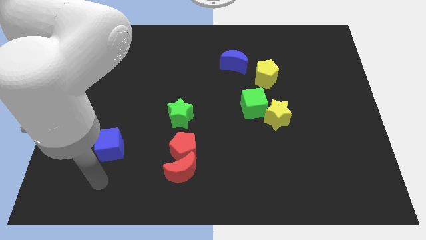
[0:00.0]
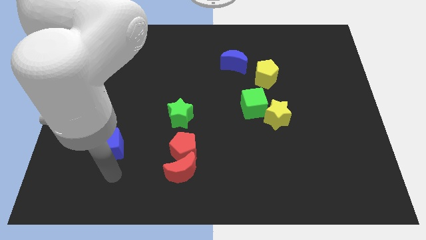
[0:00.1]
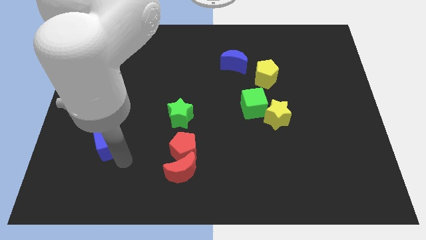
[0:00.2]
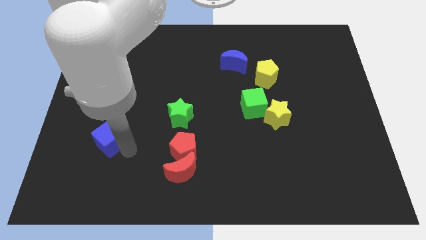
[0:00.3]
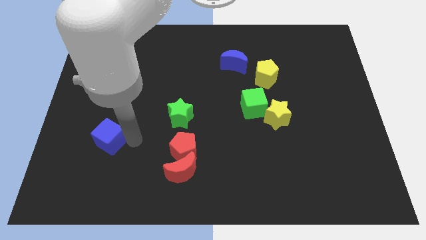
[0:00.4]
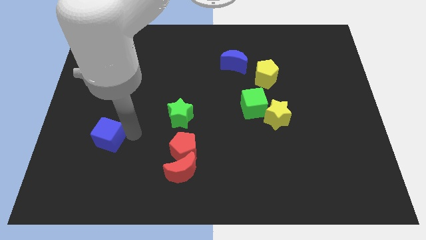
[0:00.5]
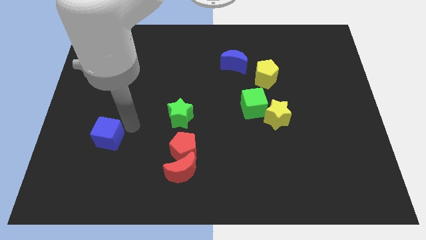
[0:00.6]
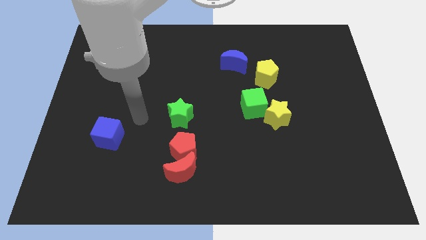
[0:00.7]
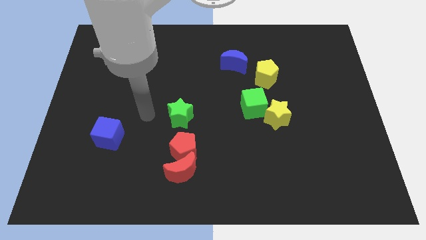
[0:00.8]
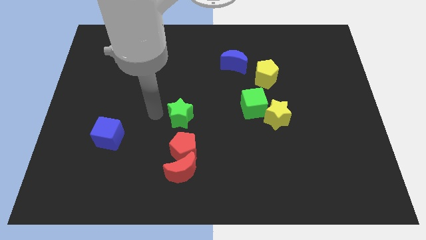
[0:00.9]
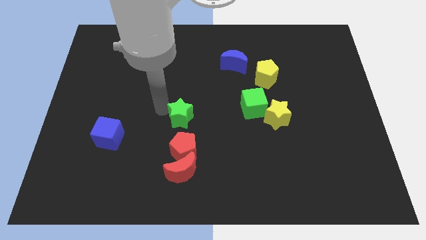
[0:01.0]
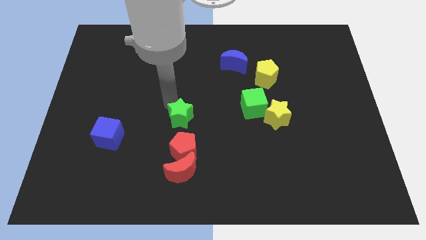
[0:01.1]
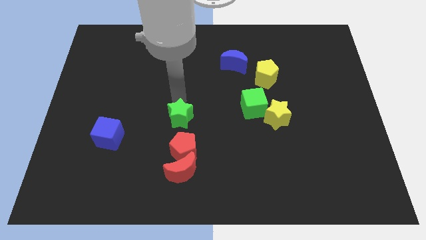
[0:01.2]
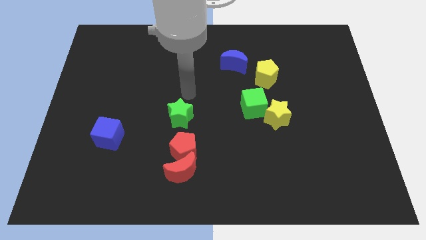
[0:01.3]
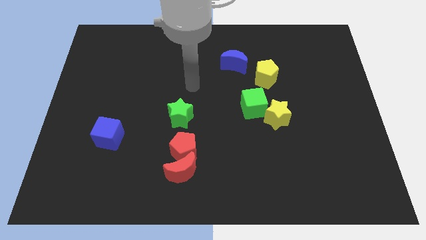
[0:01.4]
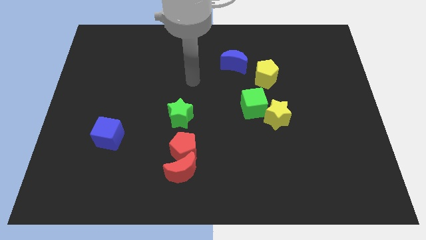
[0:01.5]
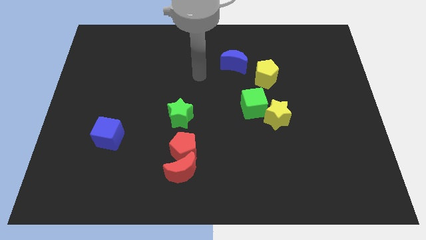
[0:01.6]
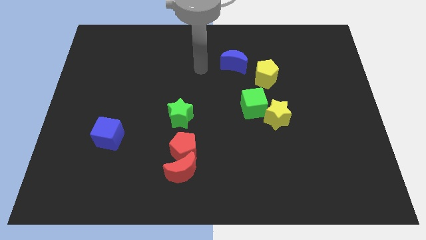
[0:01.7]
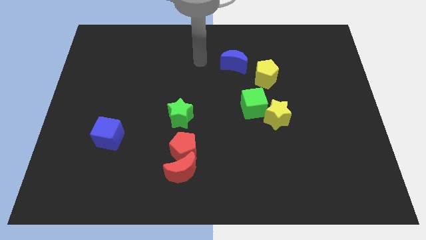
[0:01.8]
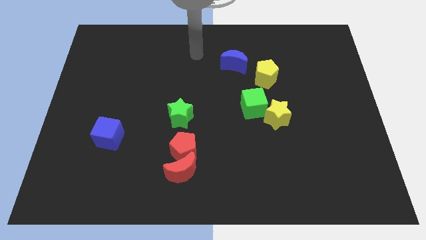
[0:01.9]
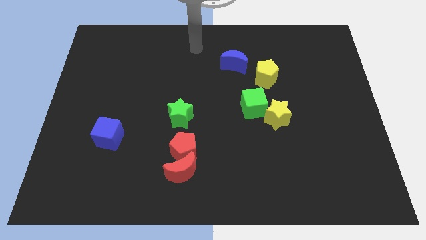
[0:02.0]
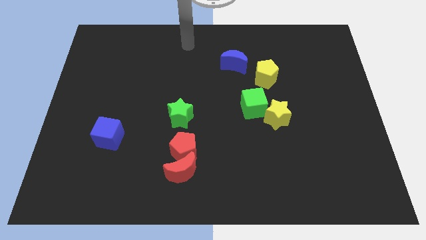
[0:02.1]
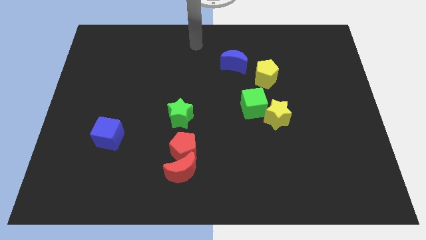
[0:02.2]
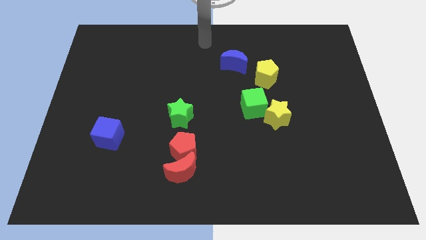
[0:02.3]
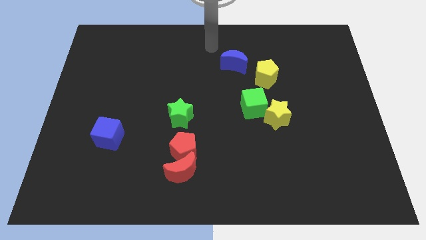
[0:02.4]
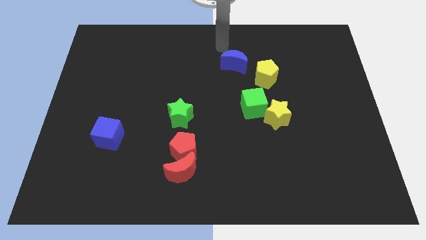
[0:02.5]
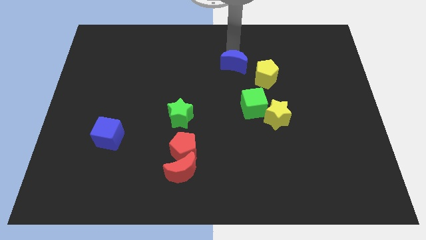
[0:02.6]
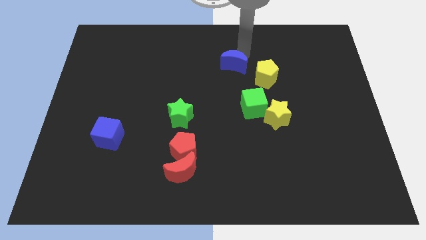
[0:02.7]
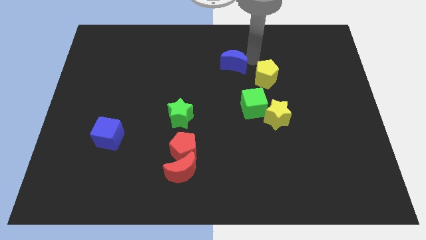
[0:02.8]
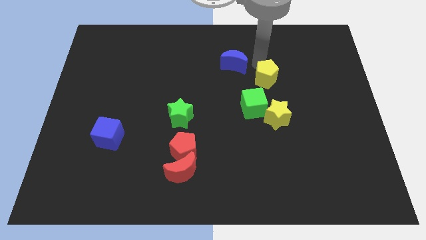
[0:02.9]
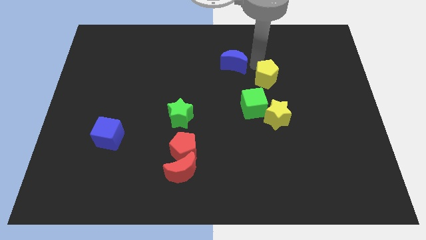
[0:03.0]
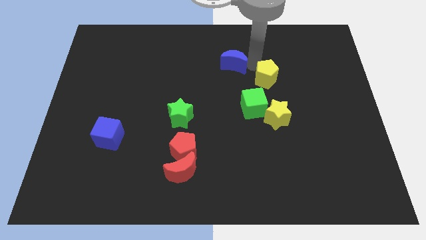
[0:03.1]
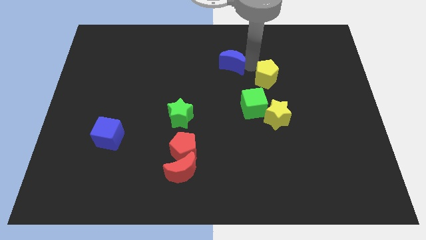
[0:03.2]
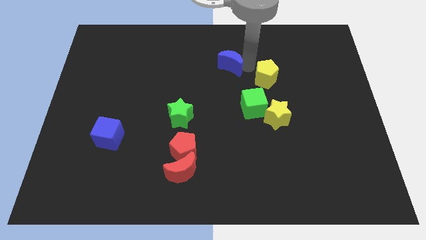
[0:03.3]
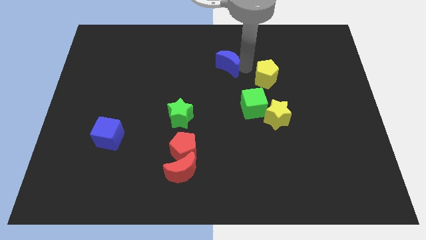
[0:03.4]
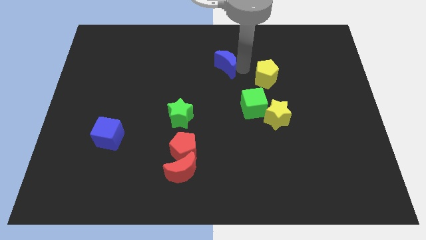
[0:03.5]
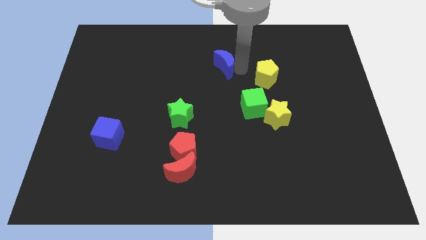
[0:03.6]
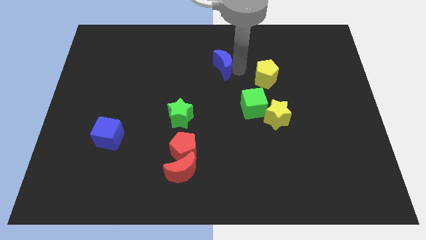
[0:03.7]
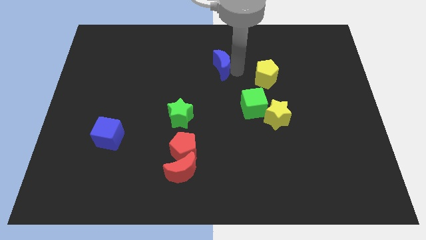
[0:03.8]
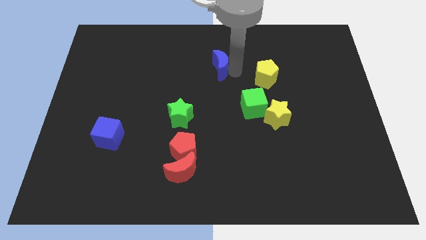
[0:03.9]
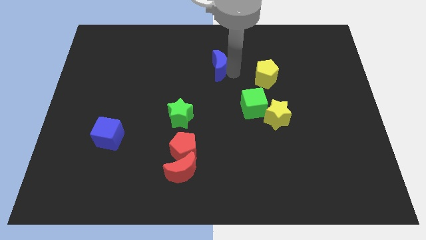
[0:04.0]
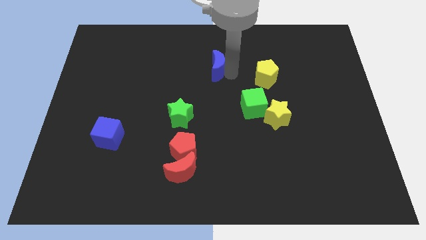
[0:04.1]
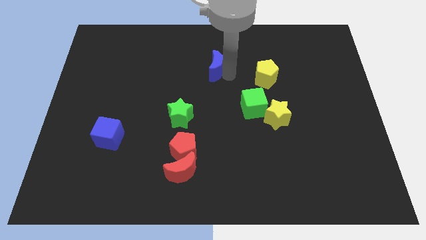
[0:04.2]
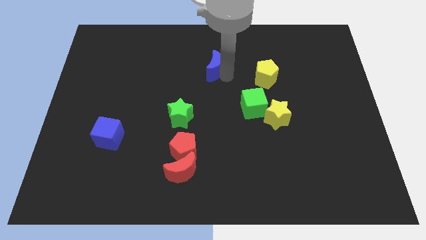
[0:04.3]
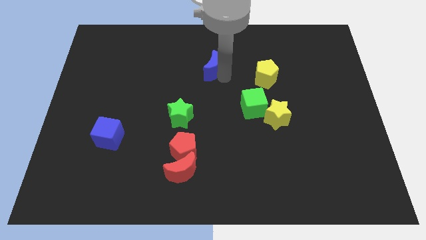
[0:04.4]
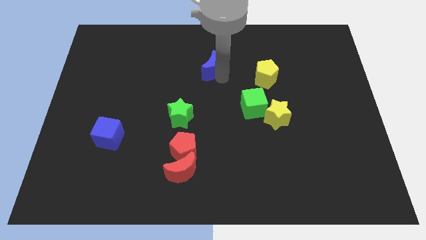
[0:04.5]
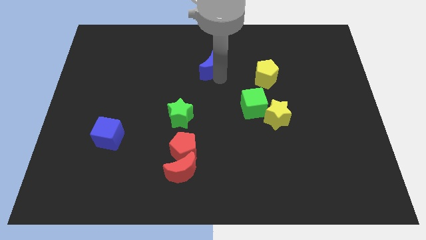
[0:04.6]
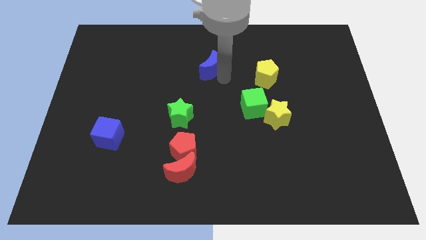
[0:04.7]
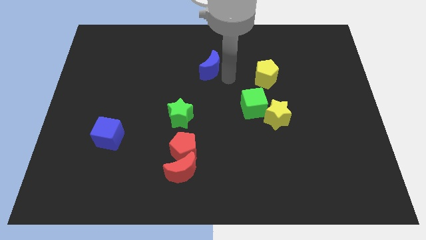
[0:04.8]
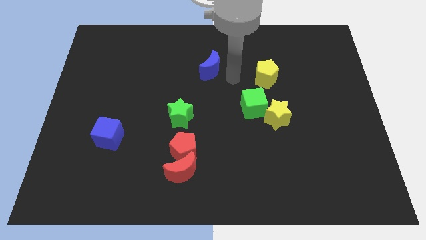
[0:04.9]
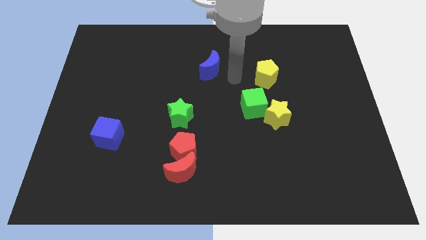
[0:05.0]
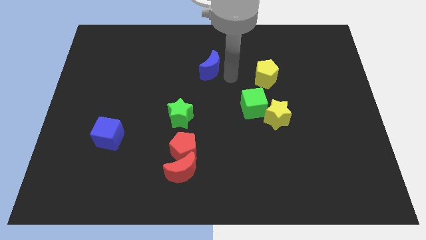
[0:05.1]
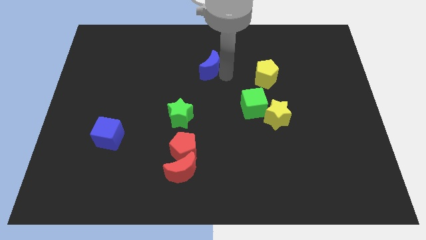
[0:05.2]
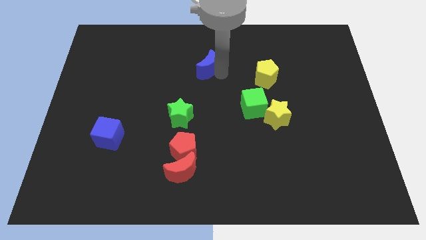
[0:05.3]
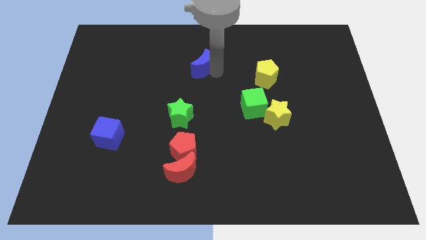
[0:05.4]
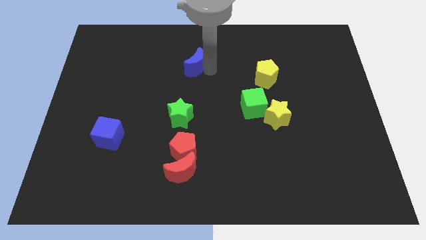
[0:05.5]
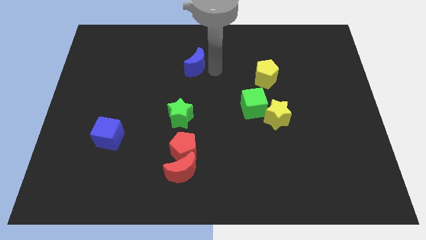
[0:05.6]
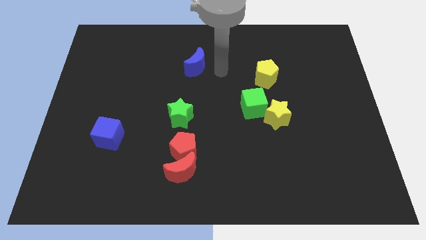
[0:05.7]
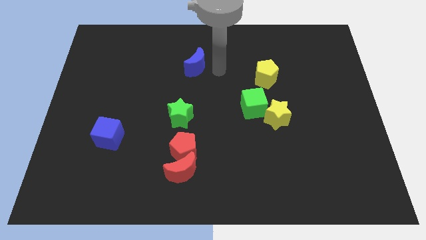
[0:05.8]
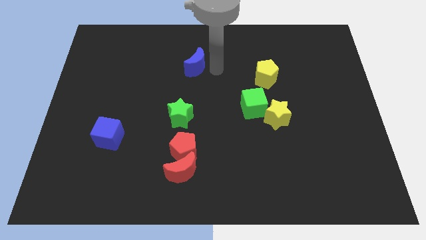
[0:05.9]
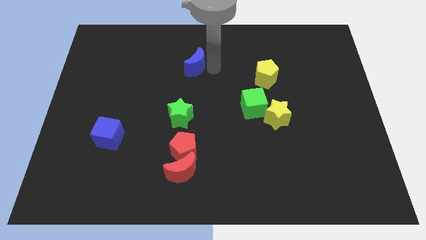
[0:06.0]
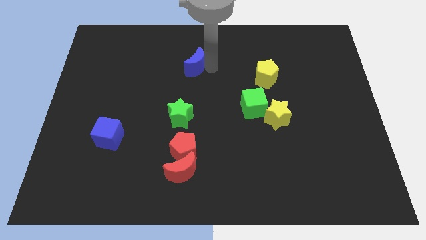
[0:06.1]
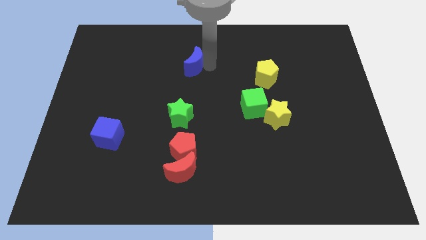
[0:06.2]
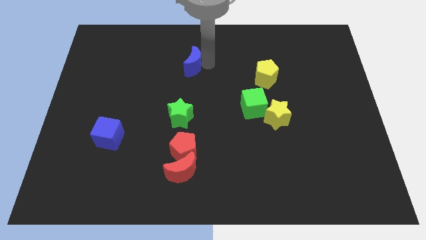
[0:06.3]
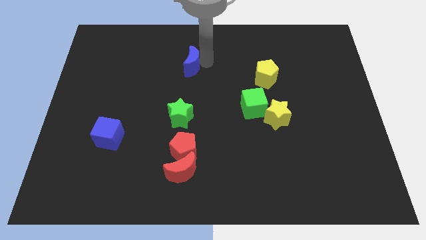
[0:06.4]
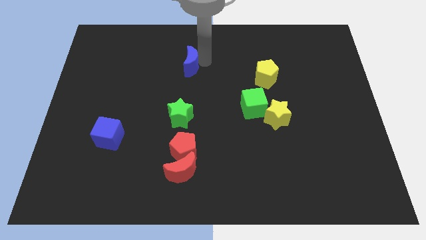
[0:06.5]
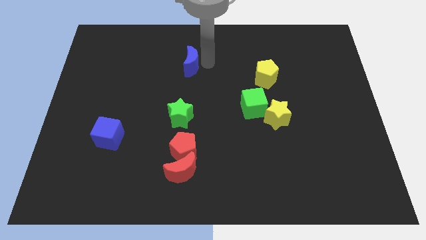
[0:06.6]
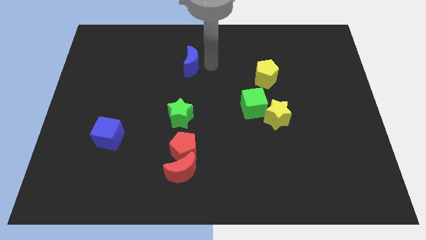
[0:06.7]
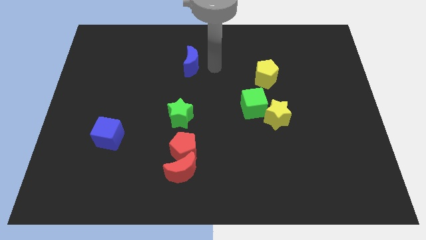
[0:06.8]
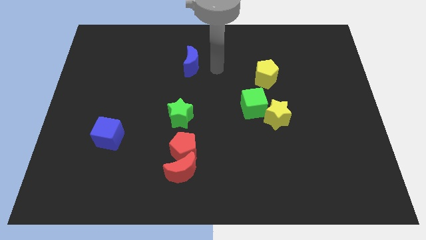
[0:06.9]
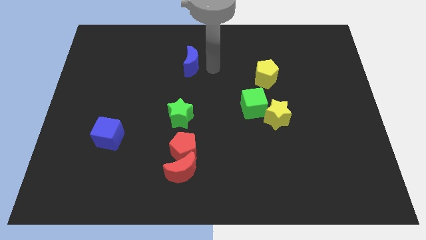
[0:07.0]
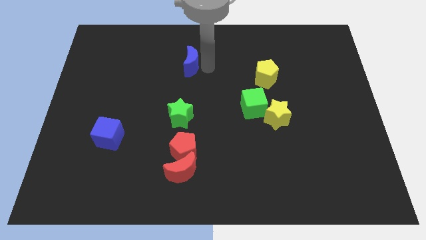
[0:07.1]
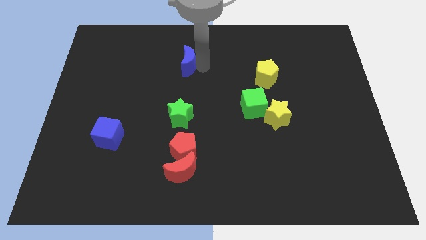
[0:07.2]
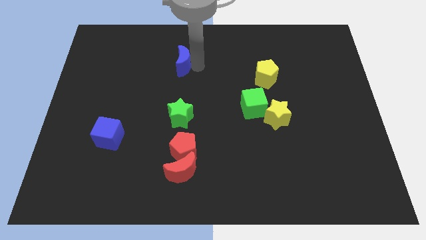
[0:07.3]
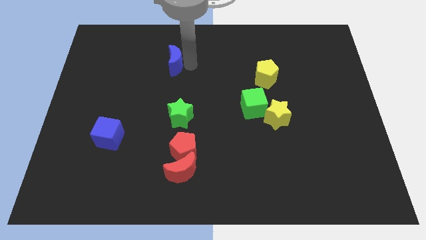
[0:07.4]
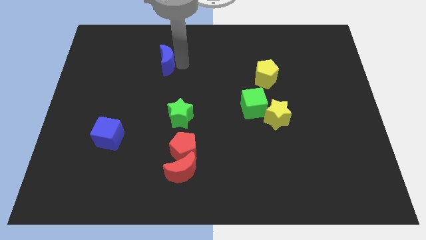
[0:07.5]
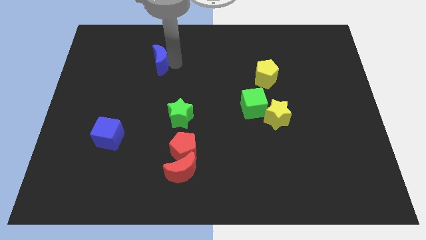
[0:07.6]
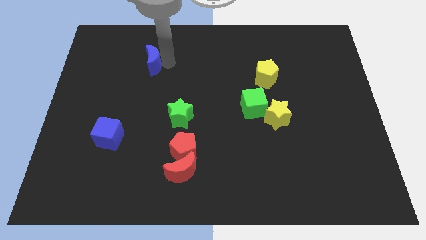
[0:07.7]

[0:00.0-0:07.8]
slide the blue moon left

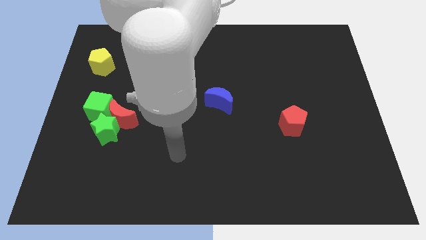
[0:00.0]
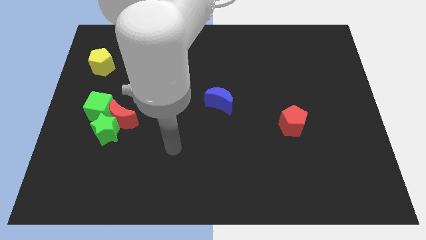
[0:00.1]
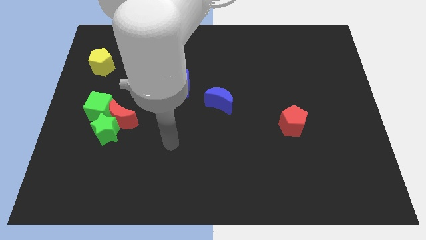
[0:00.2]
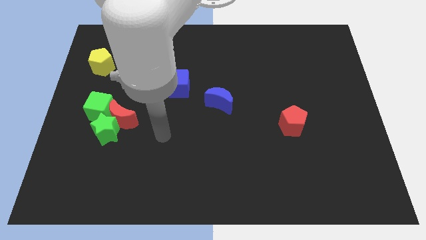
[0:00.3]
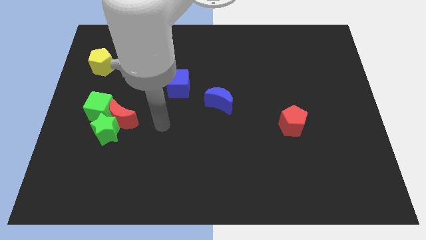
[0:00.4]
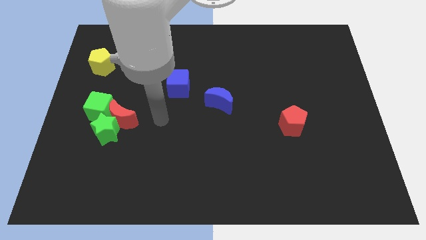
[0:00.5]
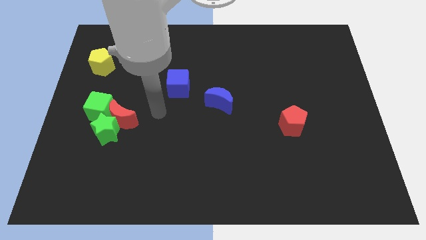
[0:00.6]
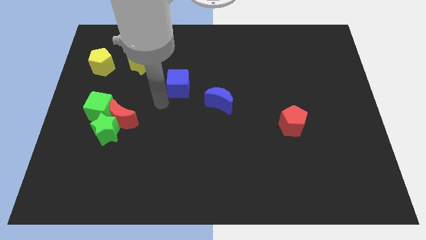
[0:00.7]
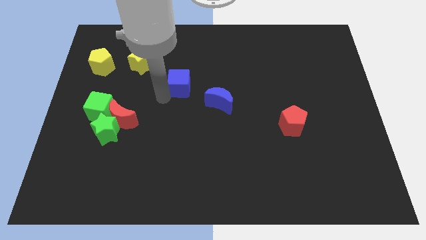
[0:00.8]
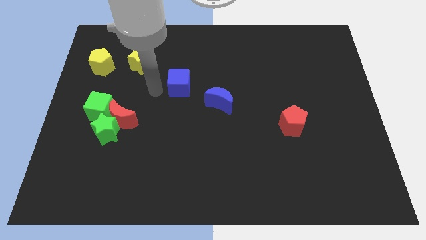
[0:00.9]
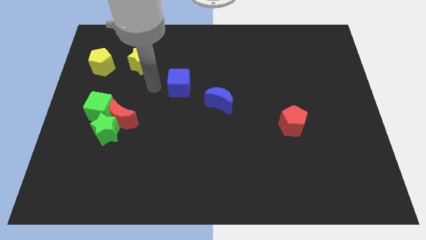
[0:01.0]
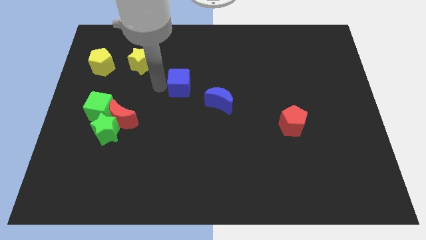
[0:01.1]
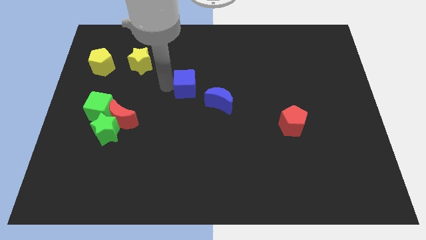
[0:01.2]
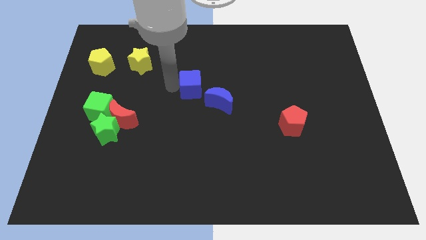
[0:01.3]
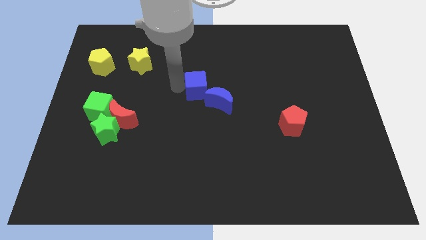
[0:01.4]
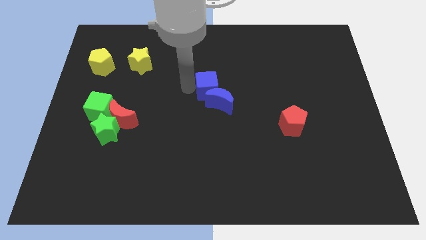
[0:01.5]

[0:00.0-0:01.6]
slightly push the blue cube right
